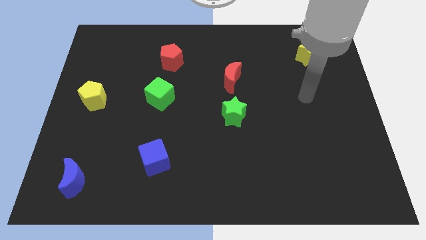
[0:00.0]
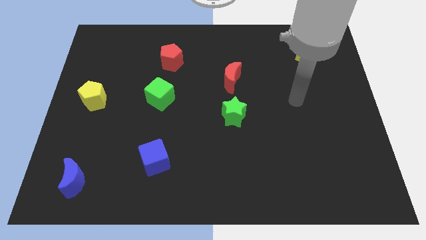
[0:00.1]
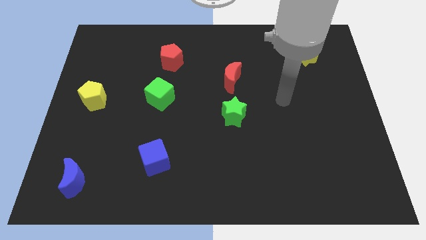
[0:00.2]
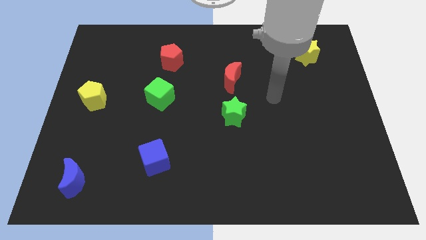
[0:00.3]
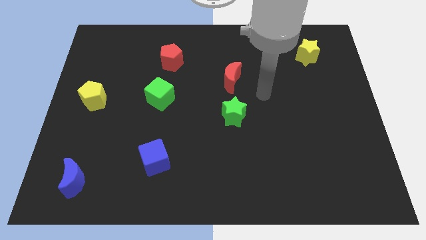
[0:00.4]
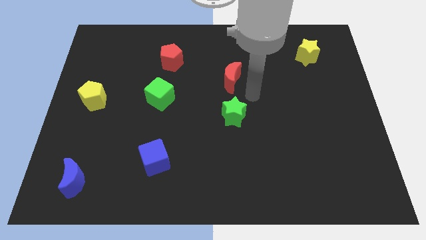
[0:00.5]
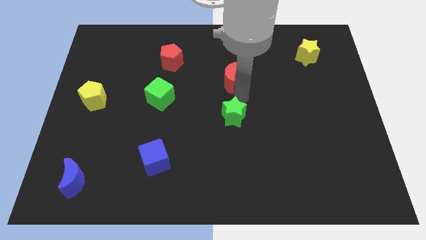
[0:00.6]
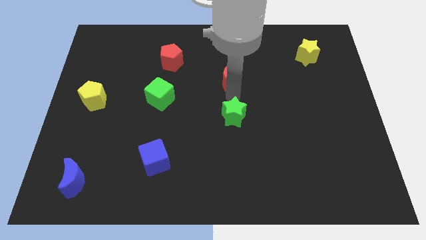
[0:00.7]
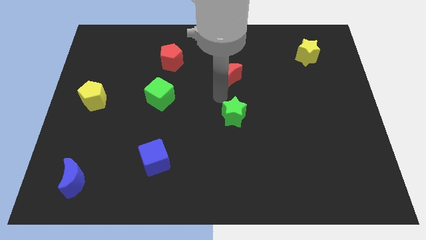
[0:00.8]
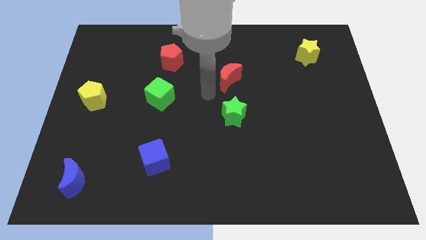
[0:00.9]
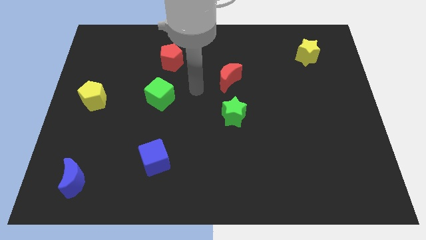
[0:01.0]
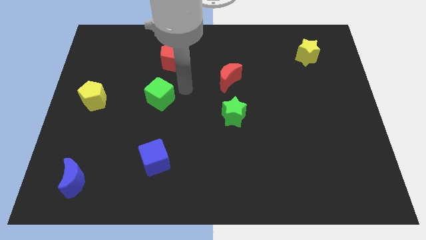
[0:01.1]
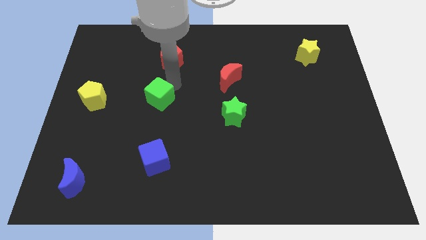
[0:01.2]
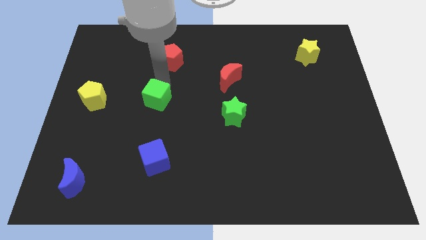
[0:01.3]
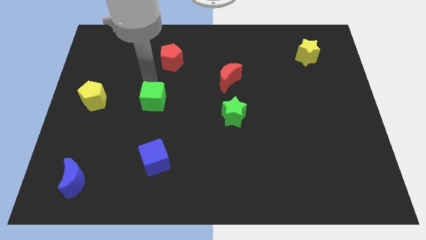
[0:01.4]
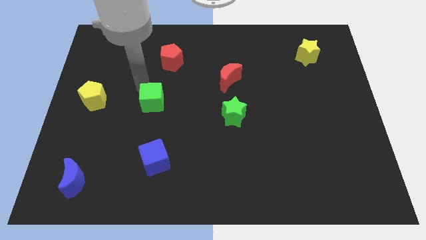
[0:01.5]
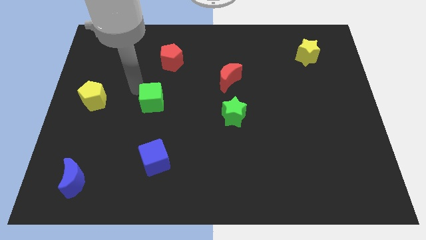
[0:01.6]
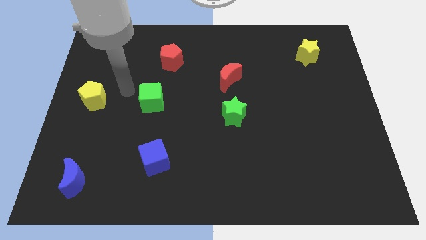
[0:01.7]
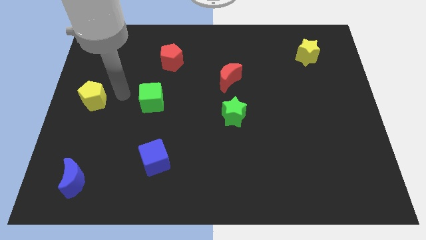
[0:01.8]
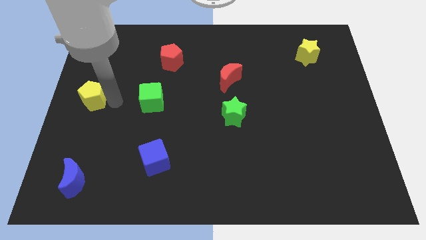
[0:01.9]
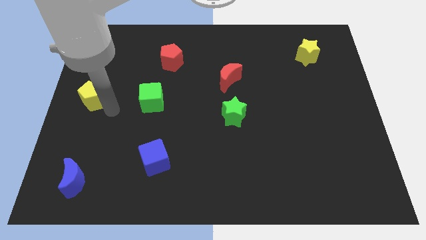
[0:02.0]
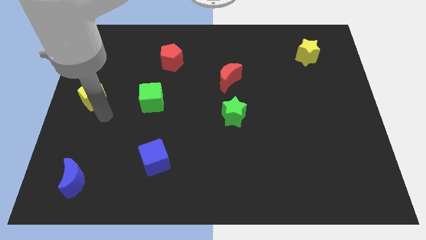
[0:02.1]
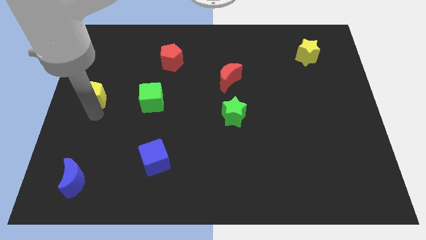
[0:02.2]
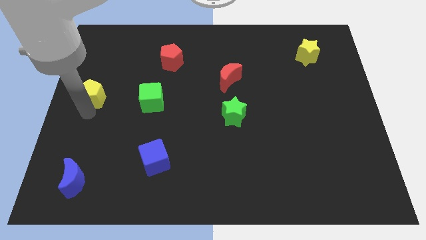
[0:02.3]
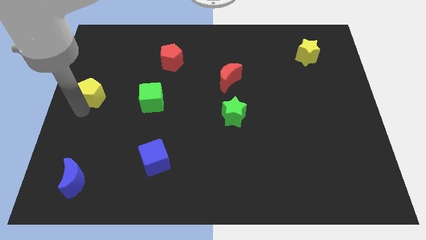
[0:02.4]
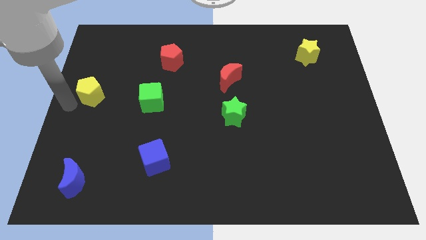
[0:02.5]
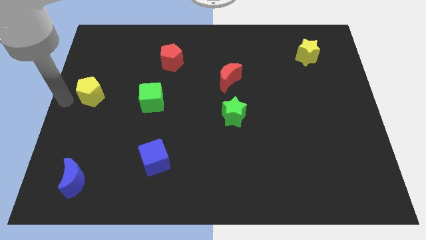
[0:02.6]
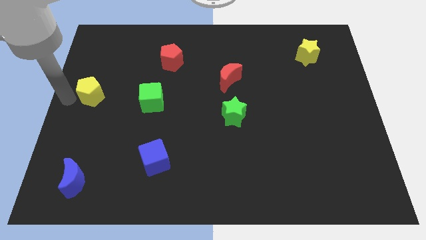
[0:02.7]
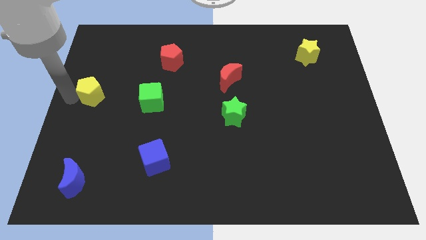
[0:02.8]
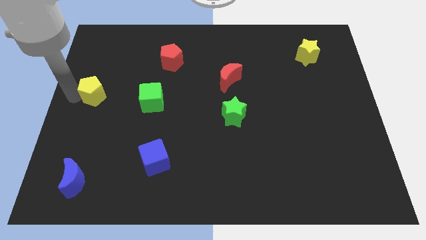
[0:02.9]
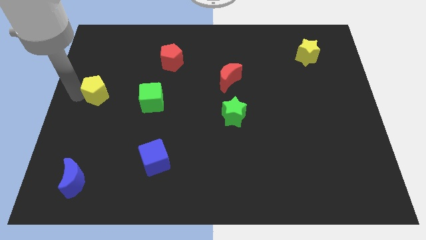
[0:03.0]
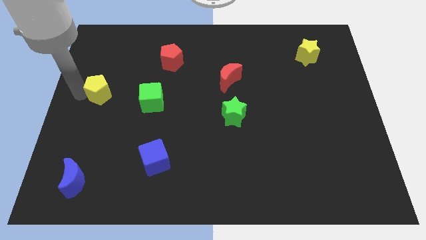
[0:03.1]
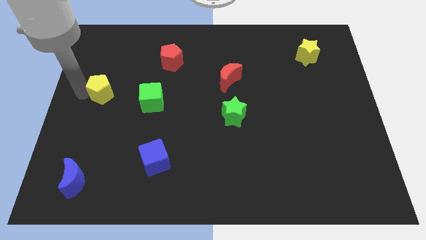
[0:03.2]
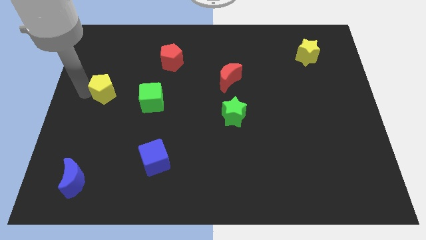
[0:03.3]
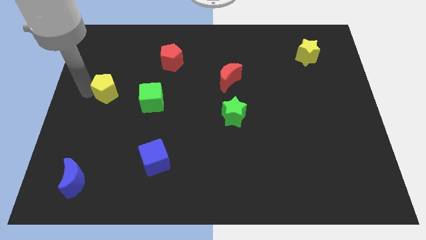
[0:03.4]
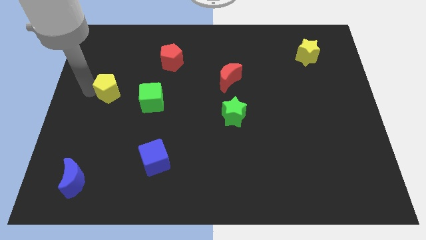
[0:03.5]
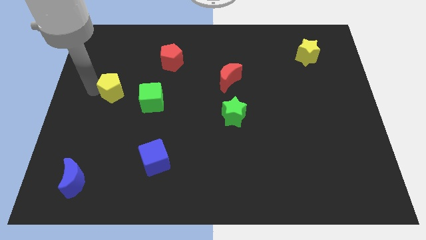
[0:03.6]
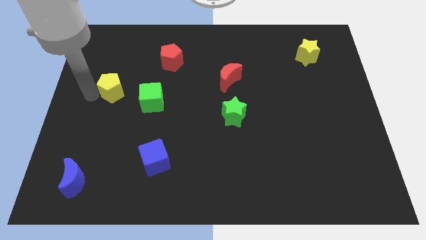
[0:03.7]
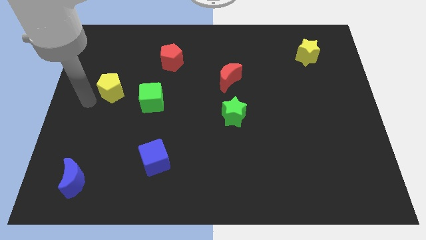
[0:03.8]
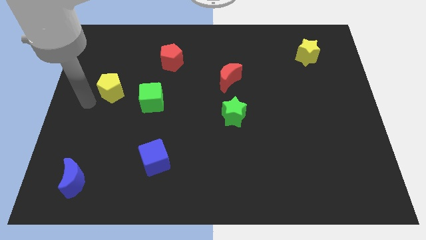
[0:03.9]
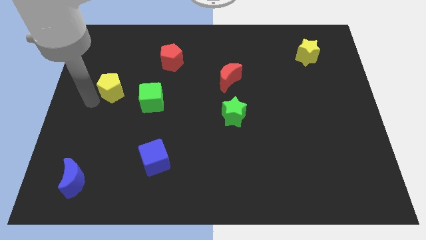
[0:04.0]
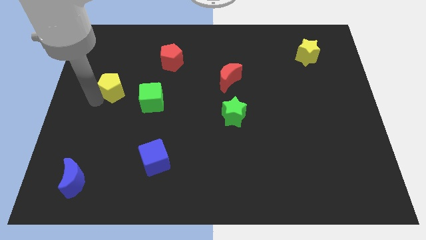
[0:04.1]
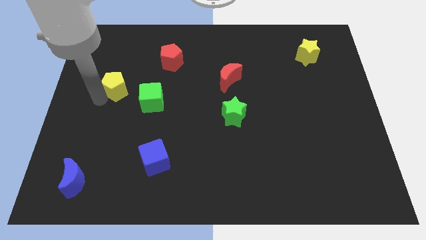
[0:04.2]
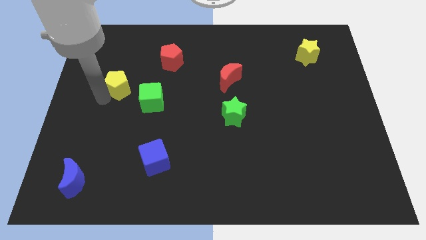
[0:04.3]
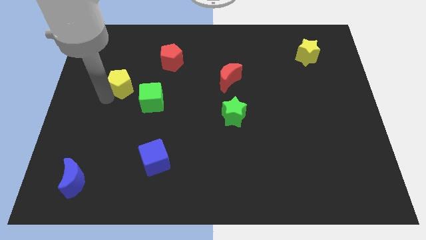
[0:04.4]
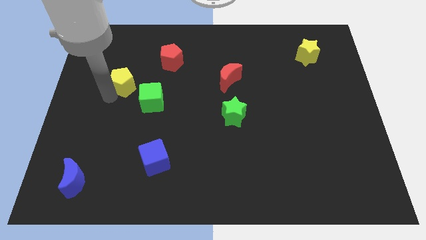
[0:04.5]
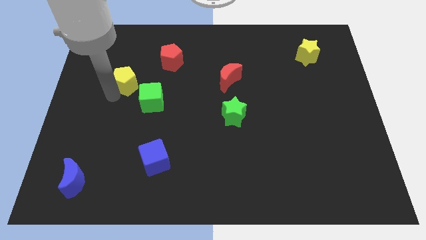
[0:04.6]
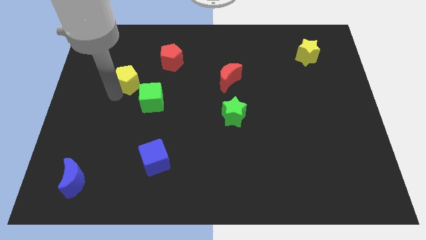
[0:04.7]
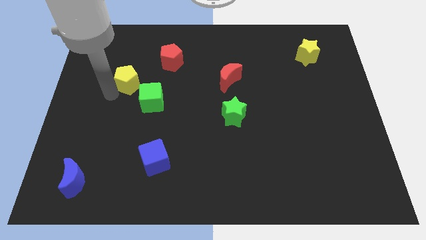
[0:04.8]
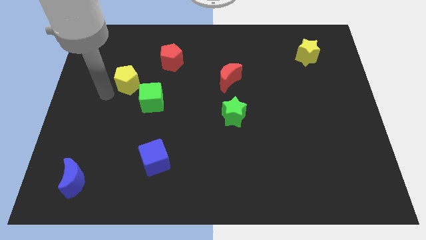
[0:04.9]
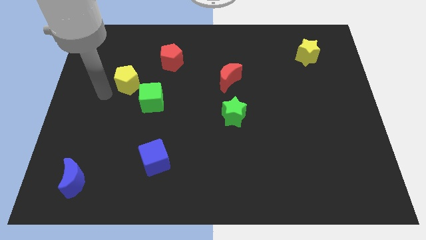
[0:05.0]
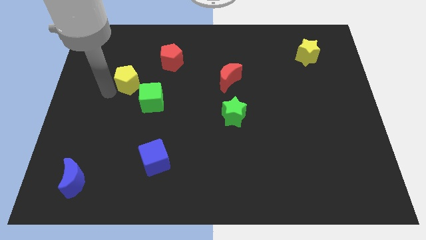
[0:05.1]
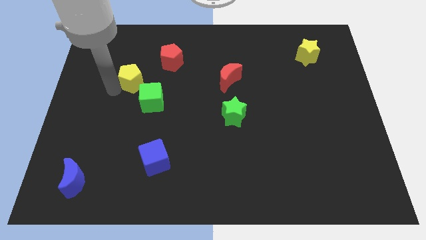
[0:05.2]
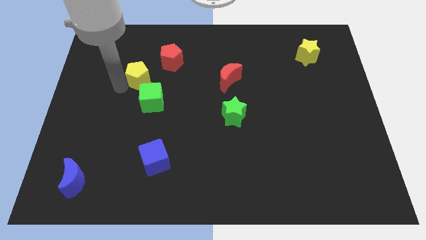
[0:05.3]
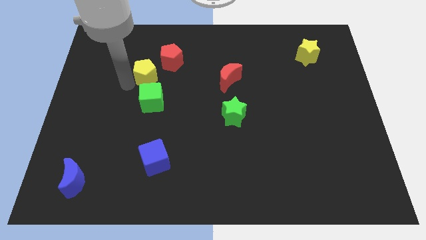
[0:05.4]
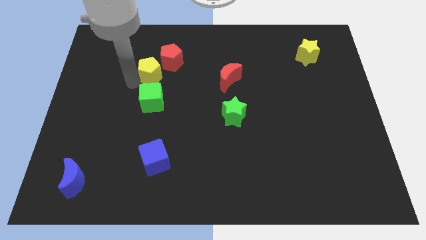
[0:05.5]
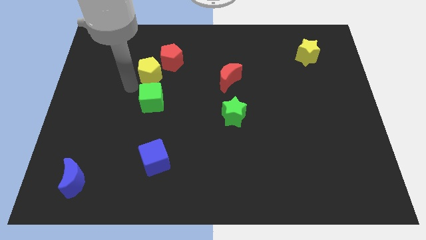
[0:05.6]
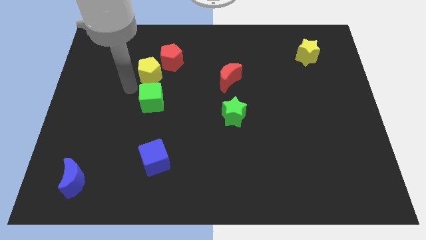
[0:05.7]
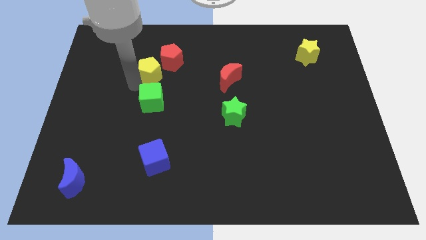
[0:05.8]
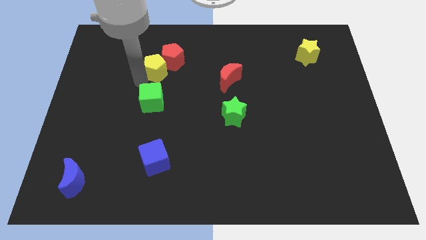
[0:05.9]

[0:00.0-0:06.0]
push the yellow pentagon next to the red pentagon
